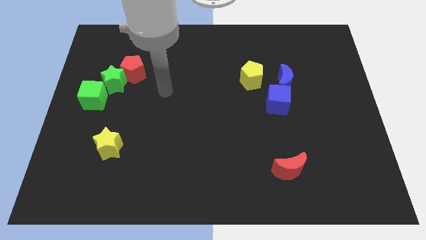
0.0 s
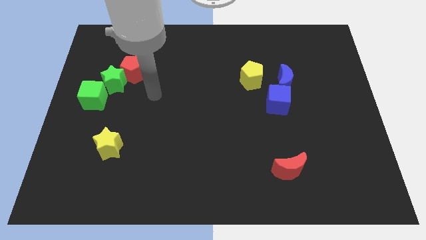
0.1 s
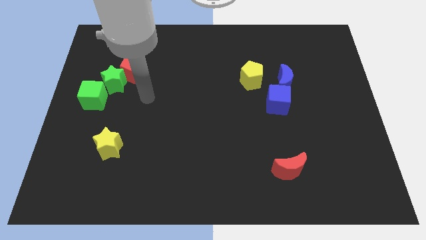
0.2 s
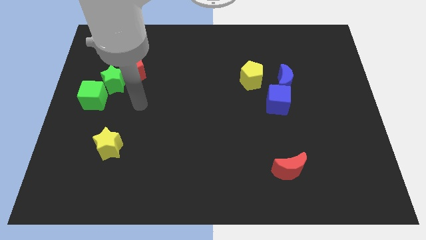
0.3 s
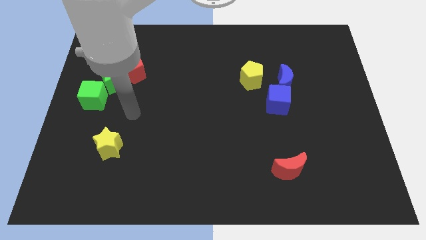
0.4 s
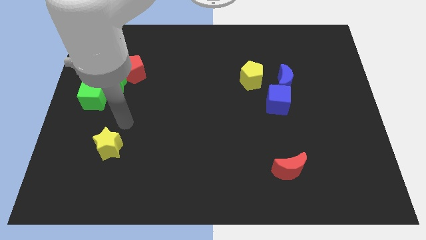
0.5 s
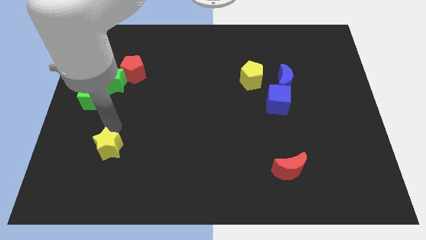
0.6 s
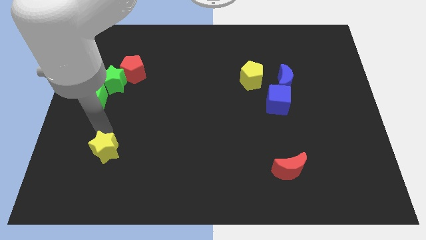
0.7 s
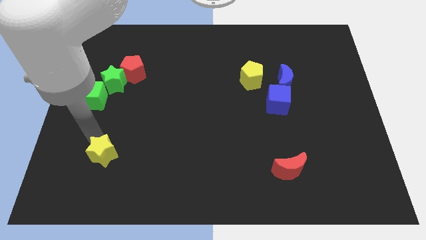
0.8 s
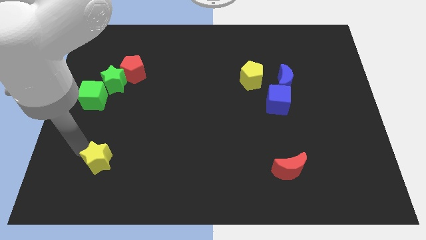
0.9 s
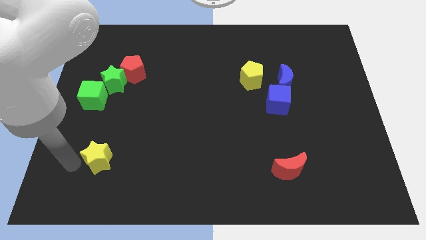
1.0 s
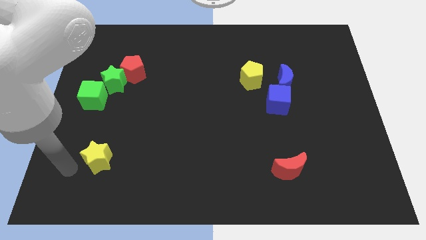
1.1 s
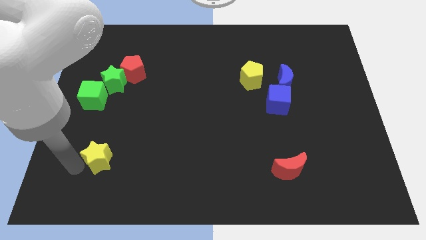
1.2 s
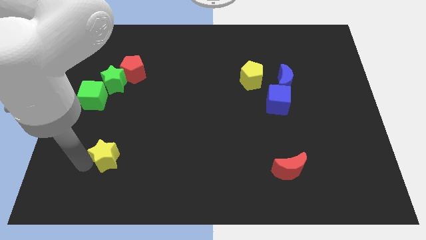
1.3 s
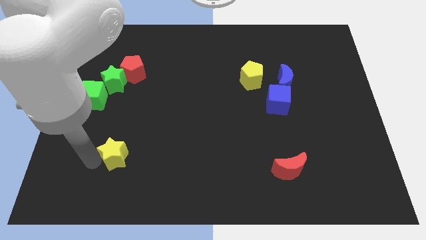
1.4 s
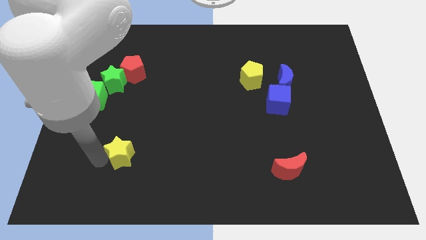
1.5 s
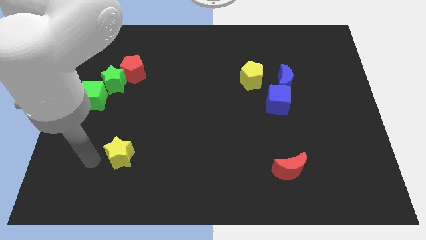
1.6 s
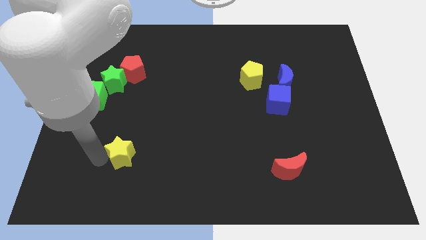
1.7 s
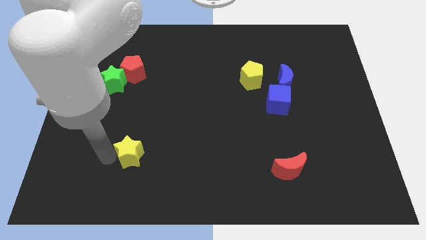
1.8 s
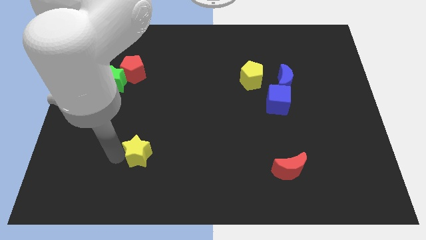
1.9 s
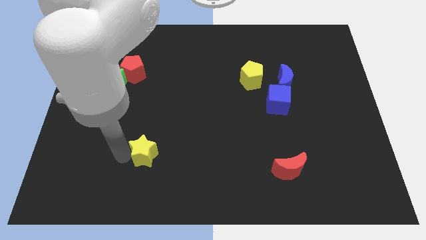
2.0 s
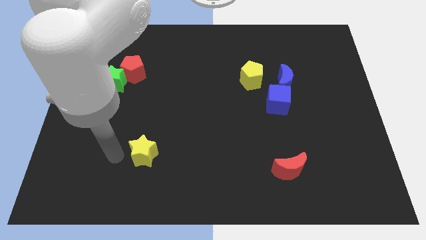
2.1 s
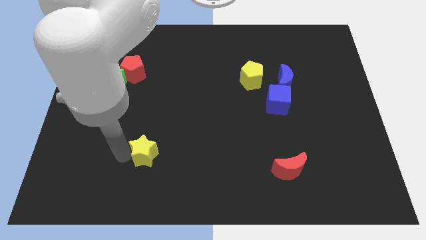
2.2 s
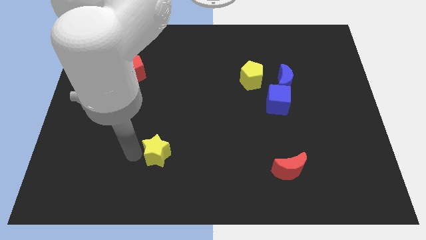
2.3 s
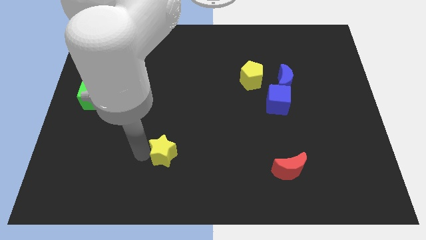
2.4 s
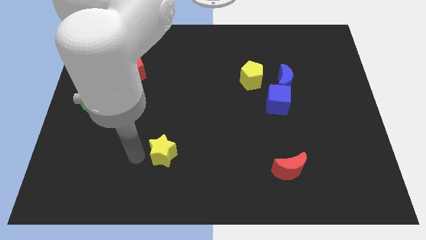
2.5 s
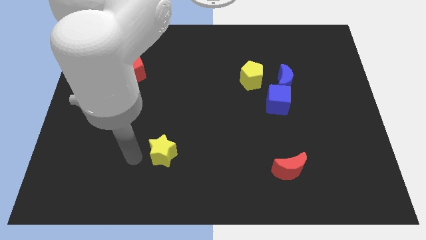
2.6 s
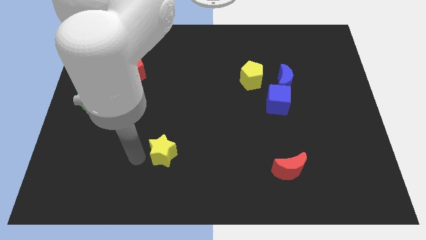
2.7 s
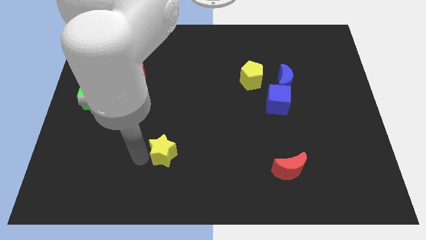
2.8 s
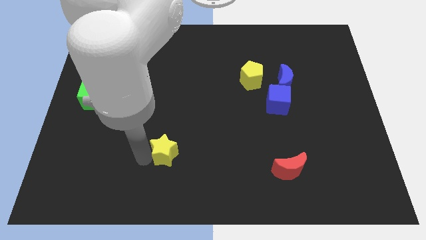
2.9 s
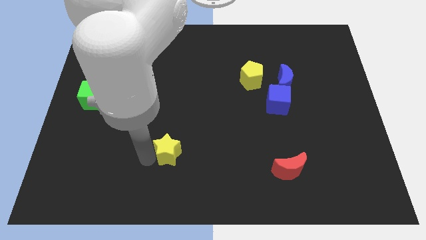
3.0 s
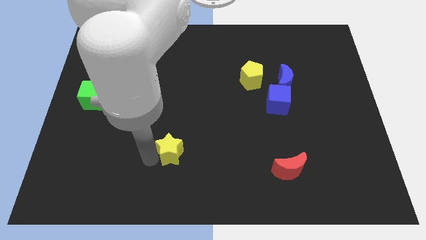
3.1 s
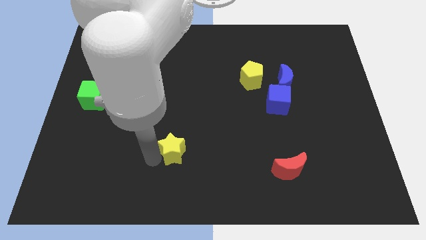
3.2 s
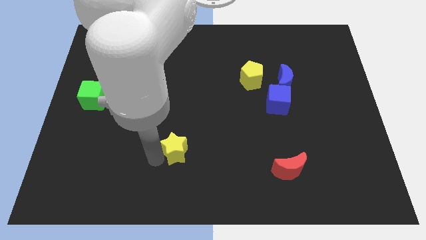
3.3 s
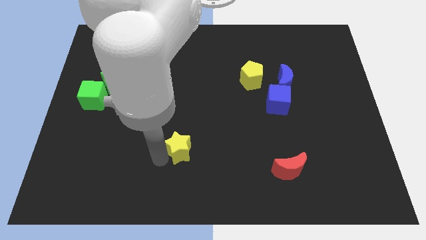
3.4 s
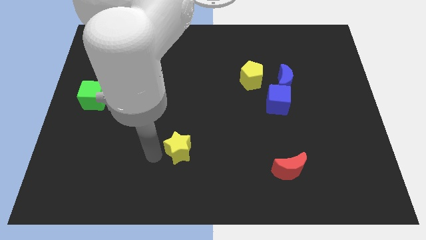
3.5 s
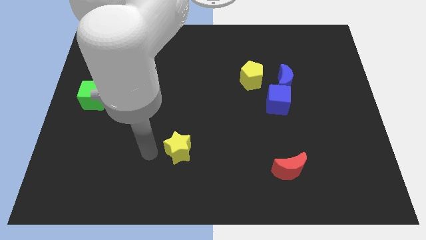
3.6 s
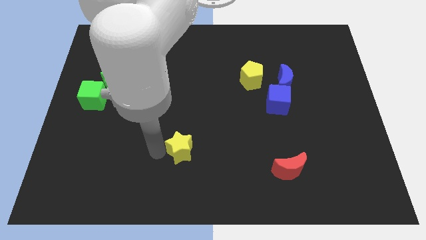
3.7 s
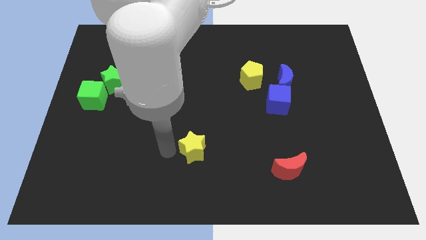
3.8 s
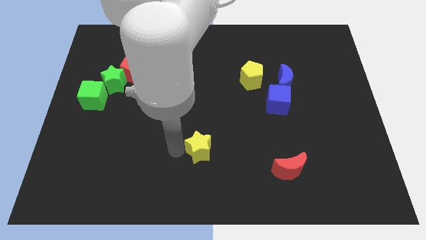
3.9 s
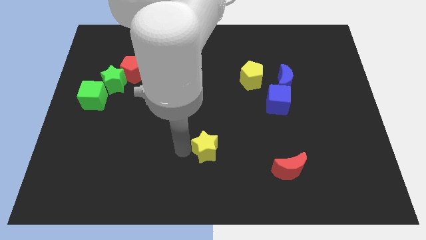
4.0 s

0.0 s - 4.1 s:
slide the yellow star to the right

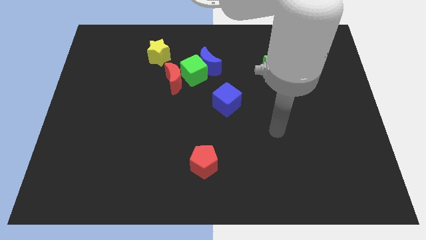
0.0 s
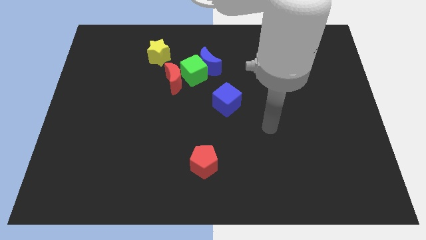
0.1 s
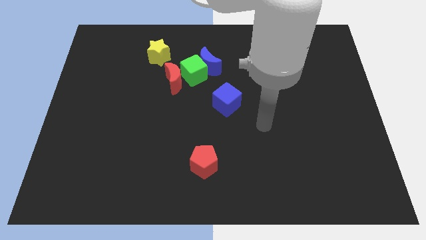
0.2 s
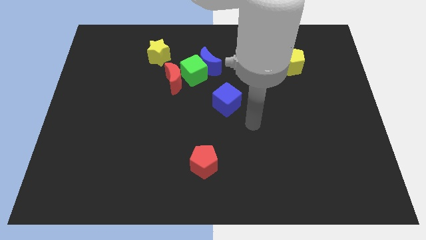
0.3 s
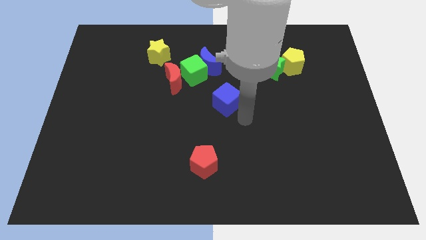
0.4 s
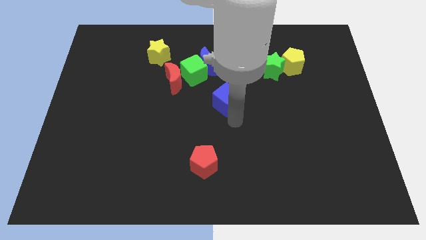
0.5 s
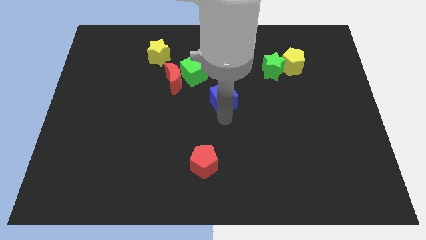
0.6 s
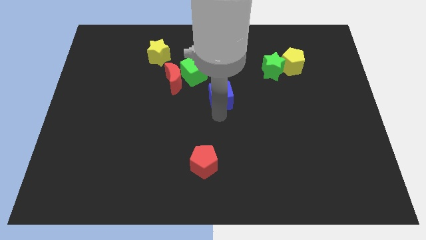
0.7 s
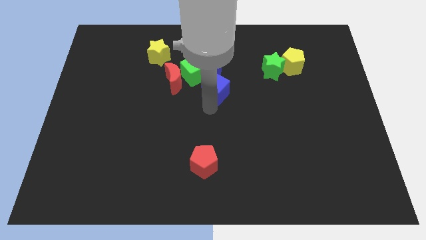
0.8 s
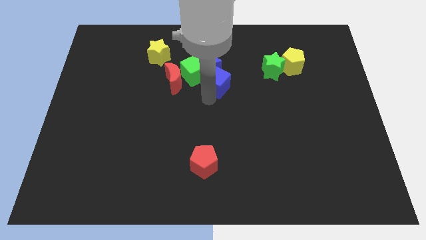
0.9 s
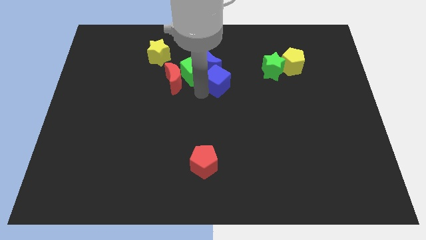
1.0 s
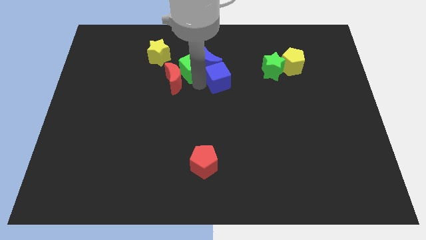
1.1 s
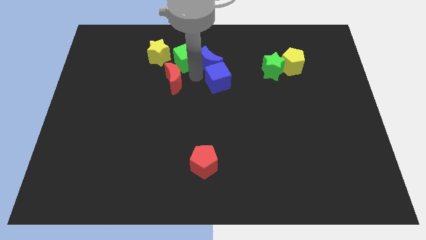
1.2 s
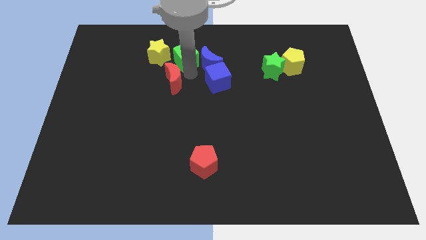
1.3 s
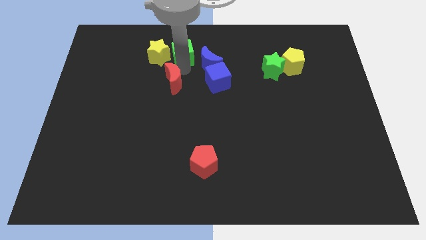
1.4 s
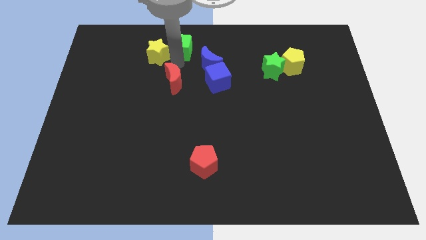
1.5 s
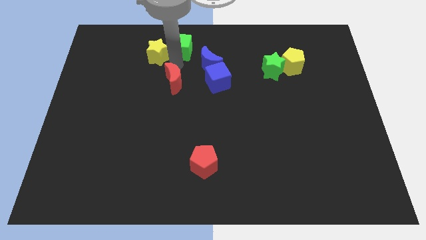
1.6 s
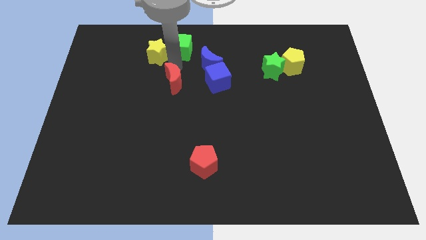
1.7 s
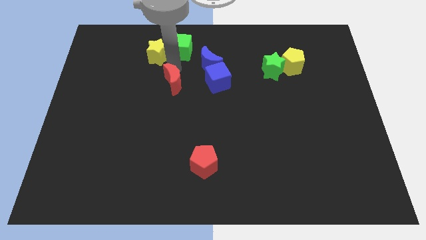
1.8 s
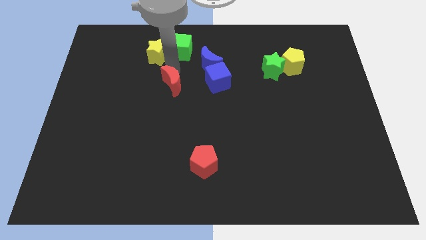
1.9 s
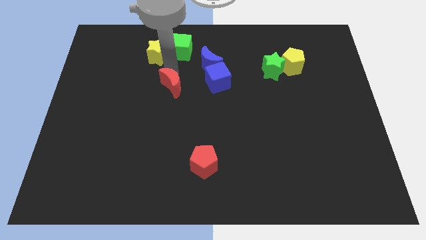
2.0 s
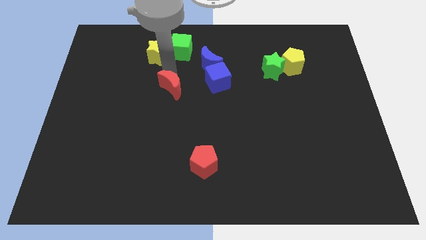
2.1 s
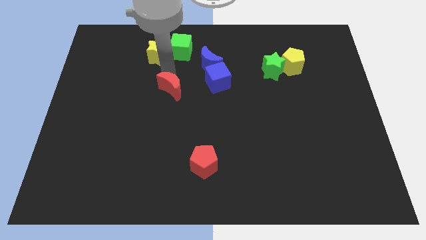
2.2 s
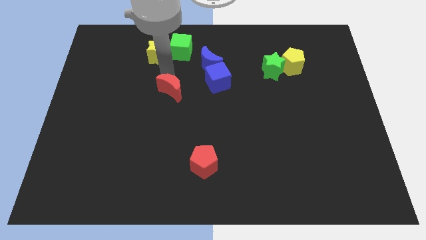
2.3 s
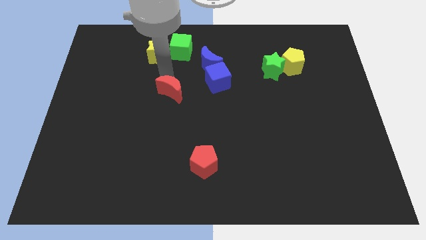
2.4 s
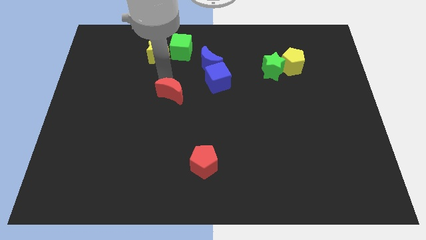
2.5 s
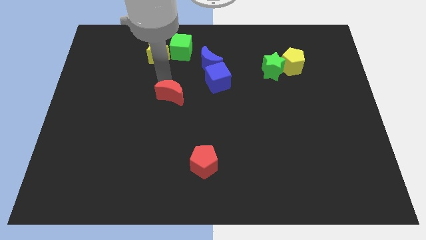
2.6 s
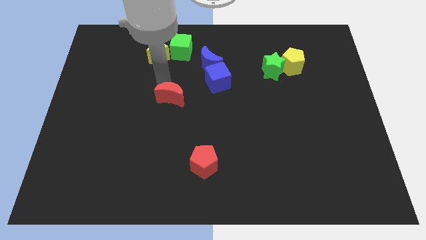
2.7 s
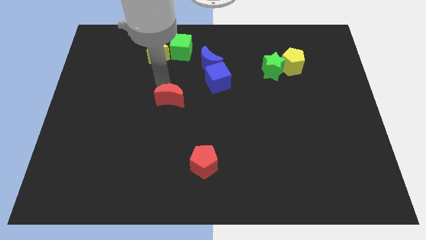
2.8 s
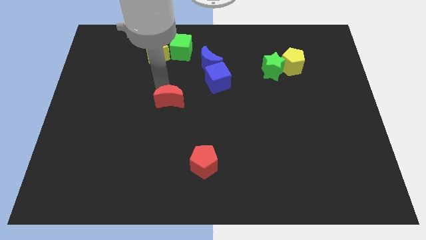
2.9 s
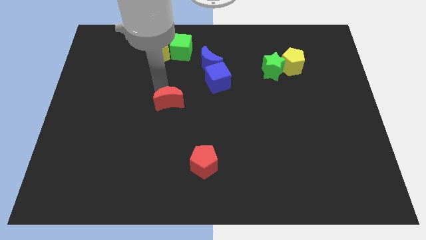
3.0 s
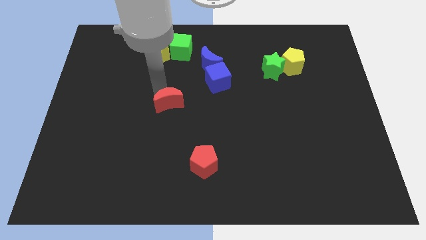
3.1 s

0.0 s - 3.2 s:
slightly slide the red moon downwards
